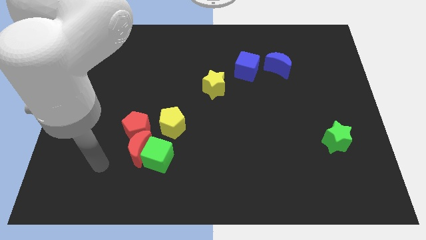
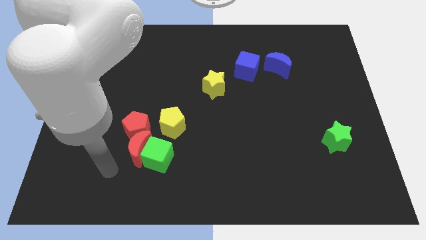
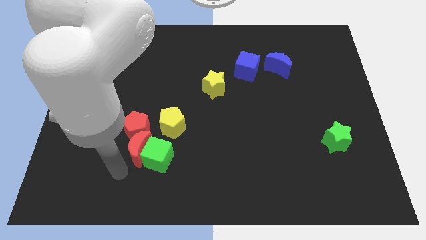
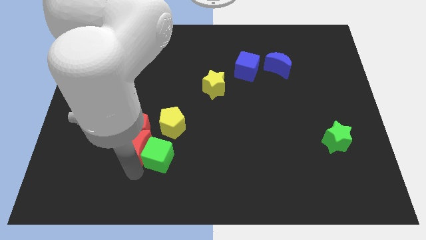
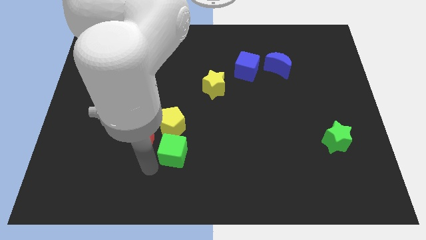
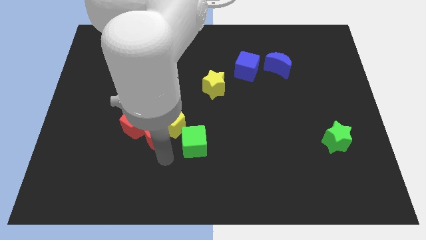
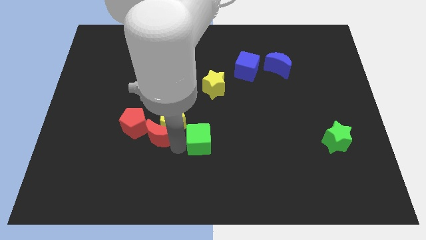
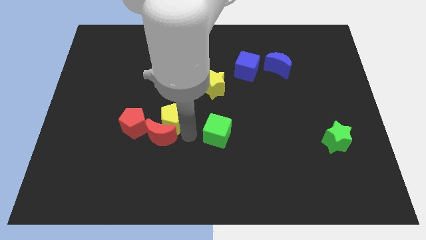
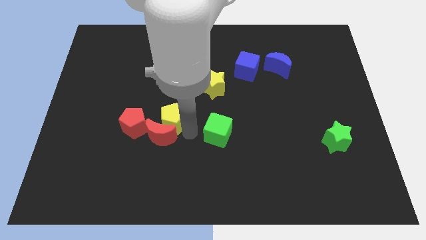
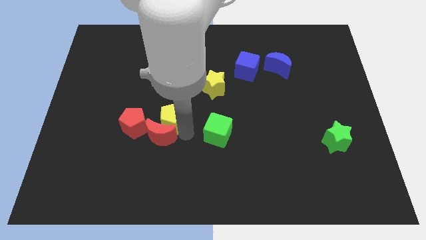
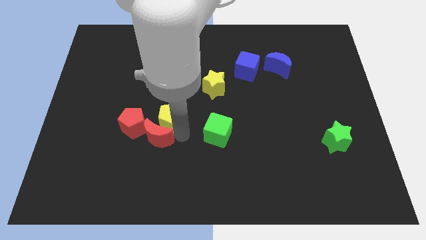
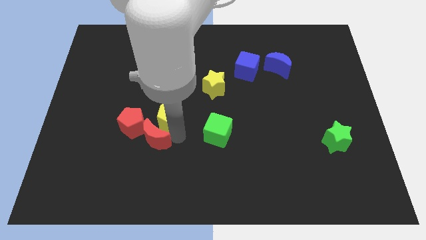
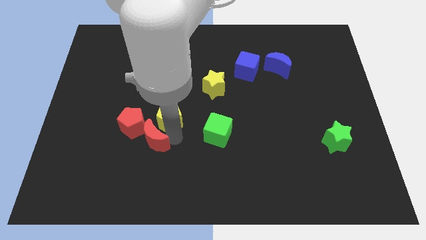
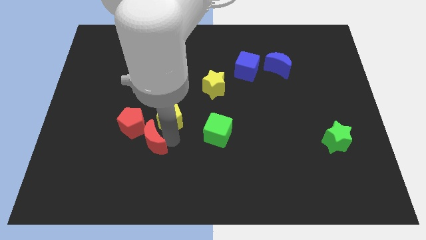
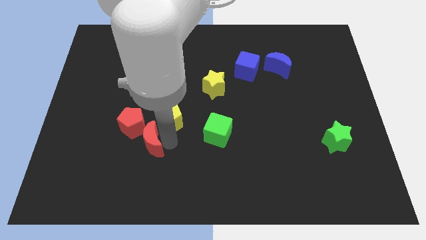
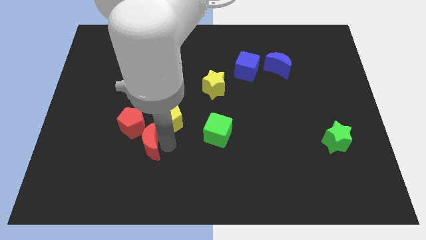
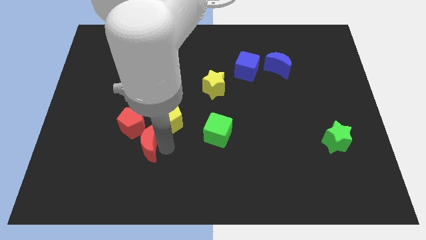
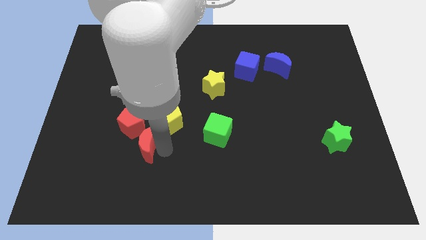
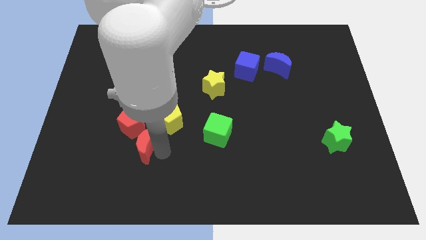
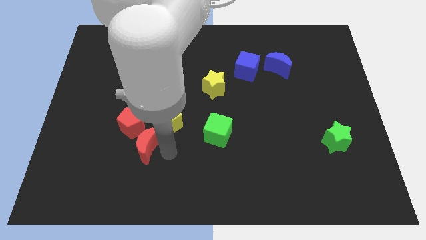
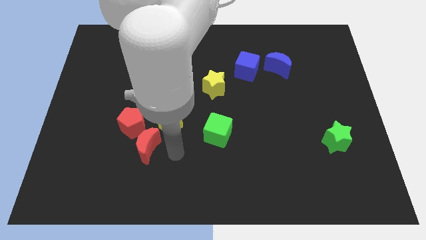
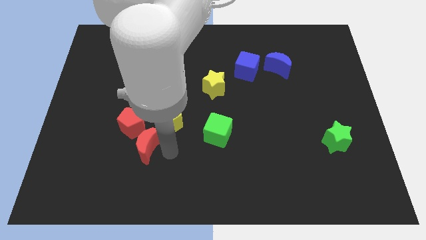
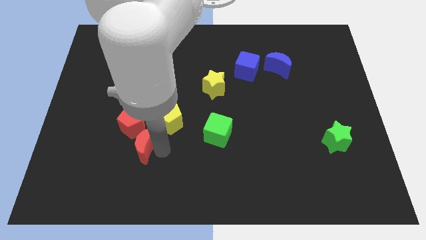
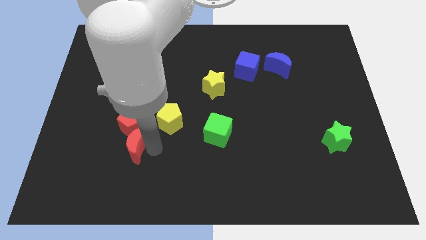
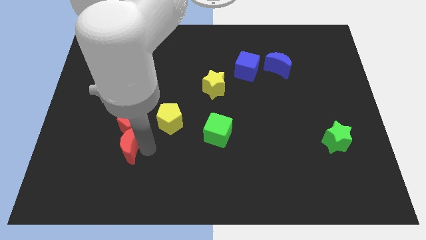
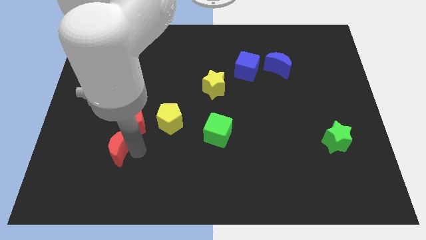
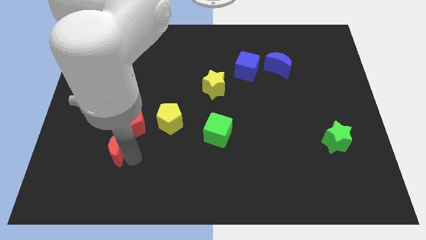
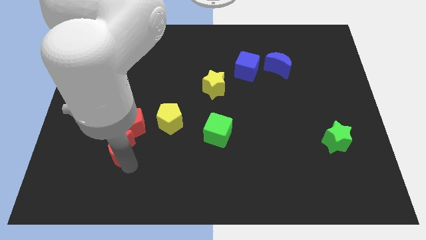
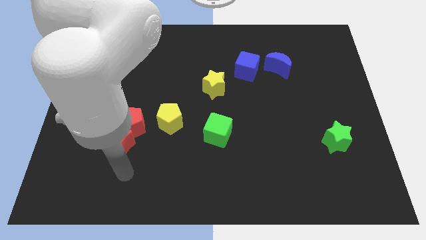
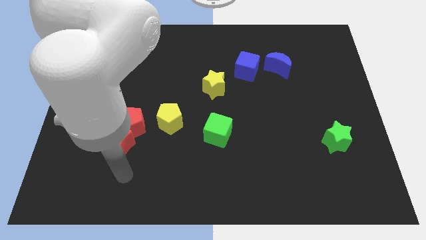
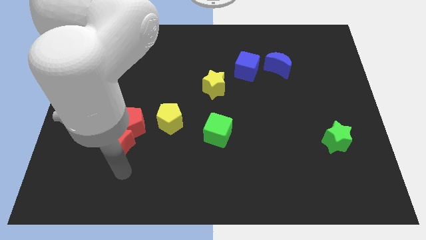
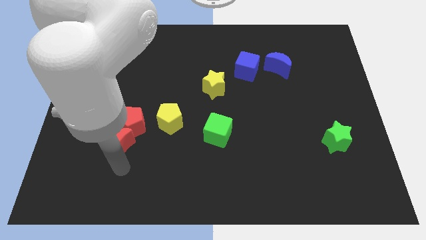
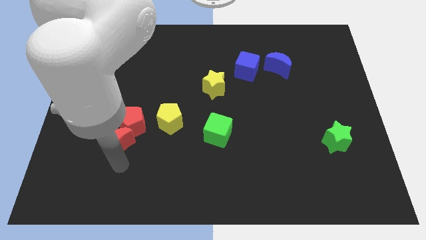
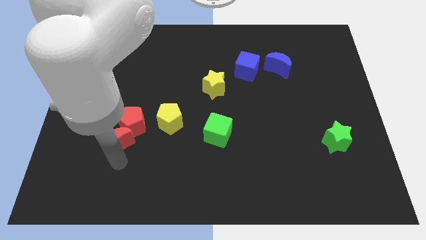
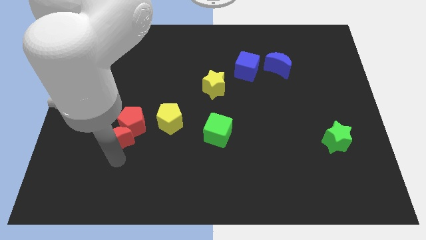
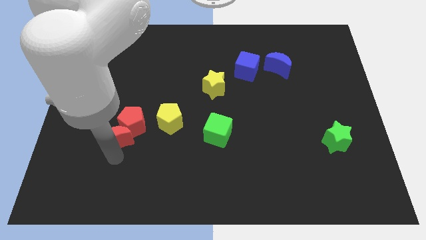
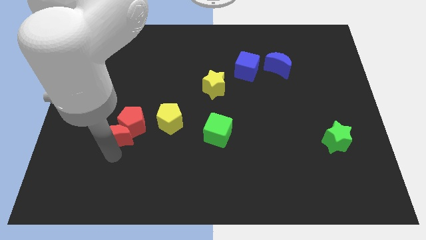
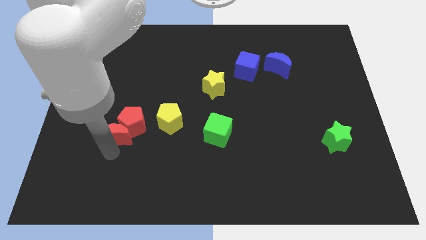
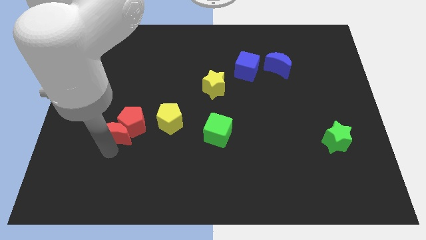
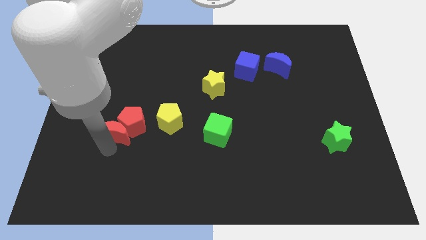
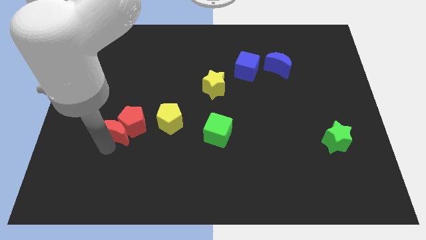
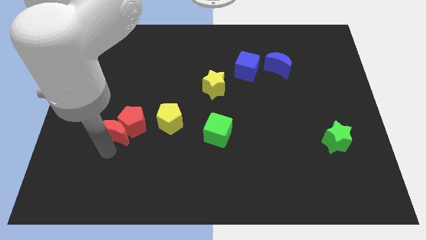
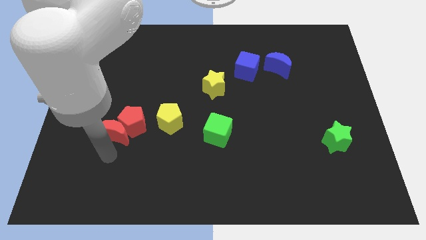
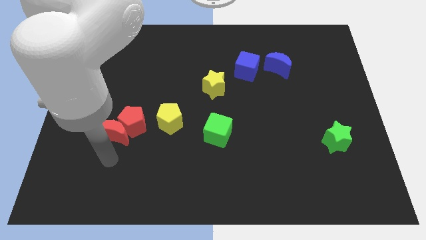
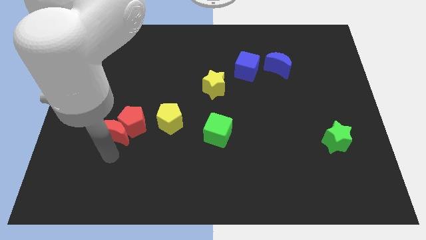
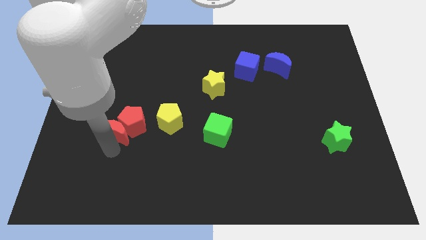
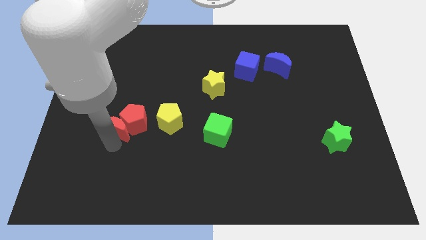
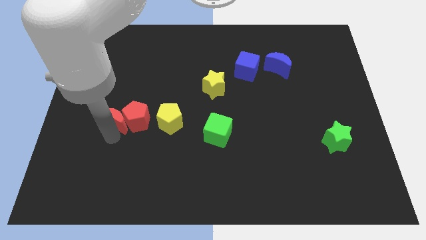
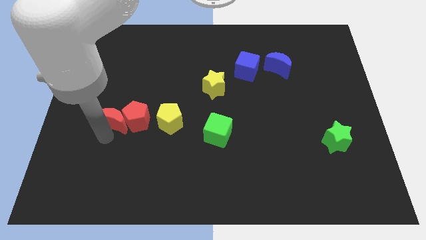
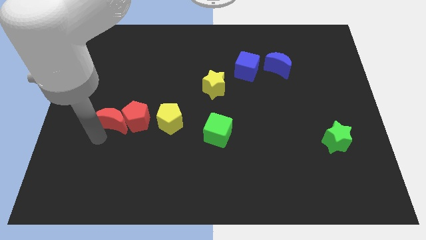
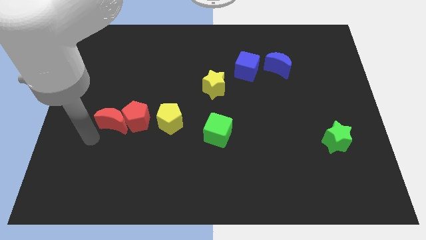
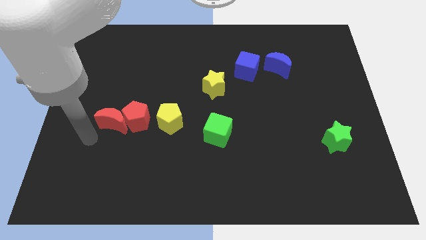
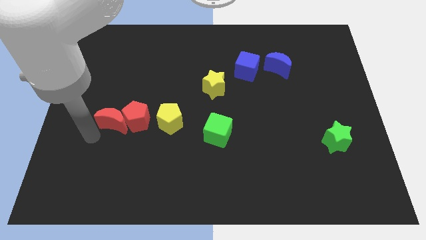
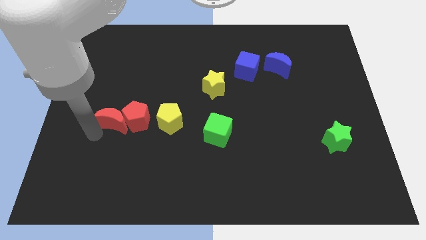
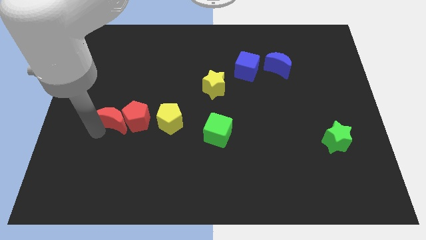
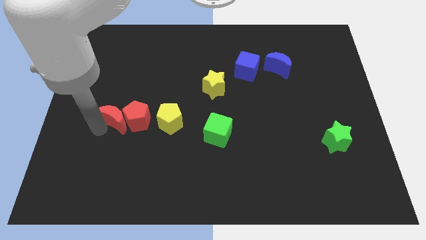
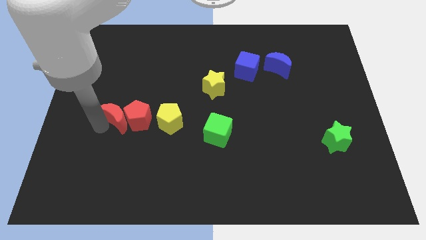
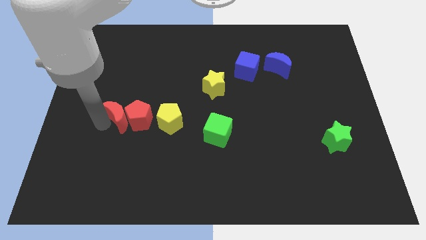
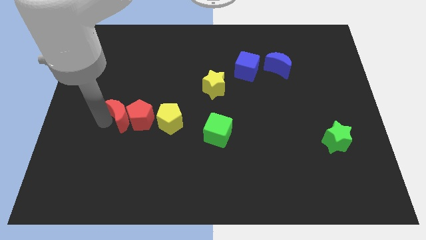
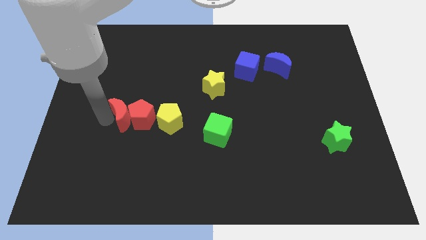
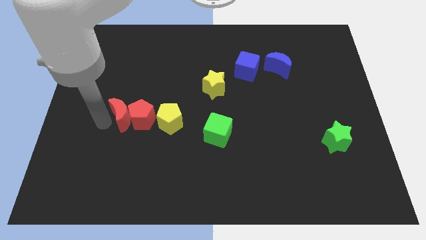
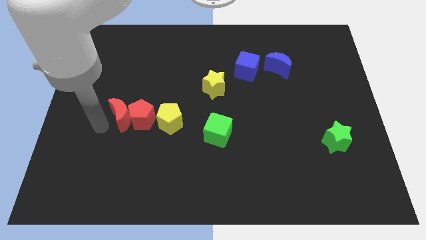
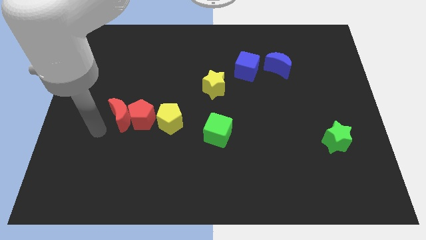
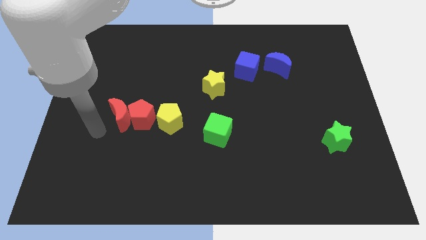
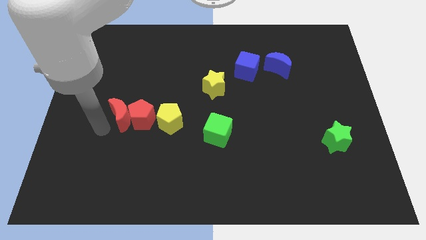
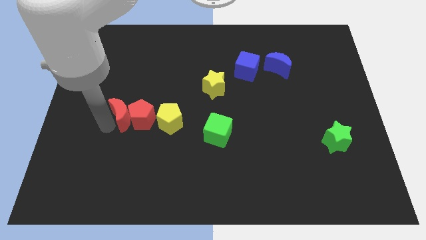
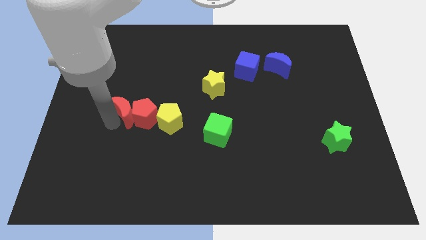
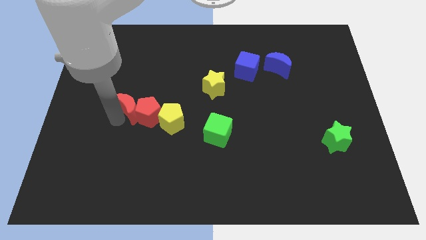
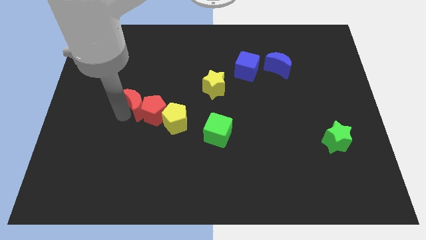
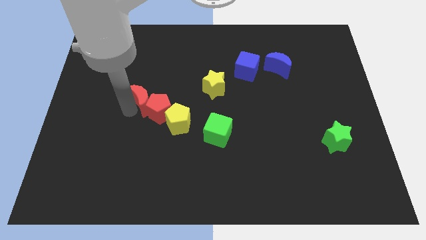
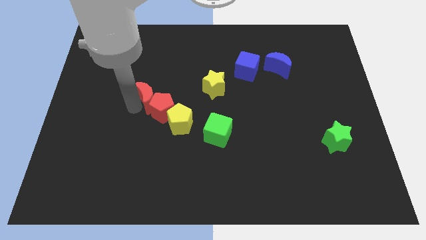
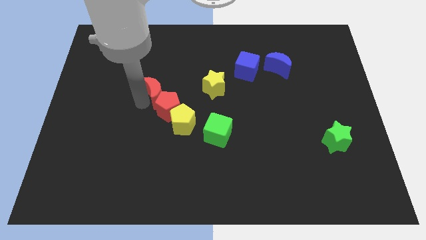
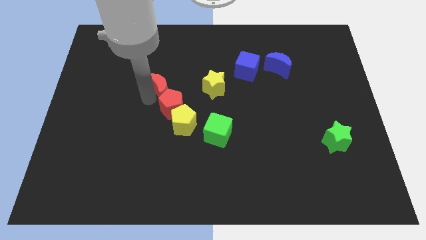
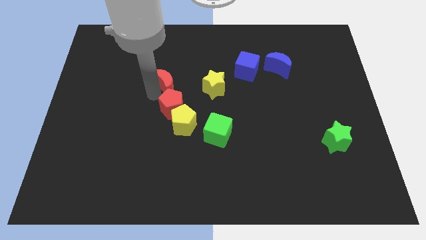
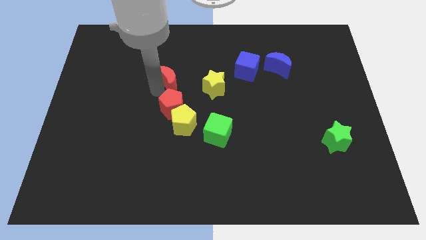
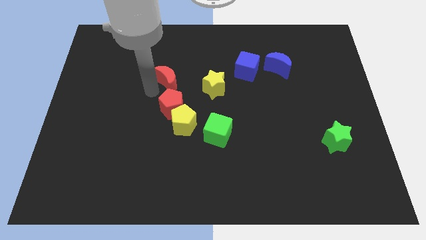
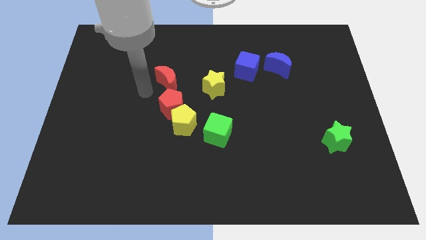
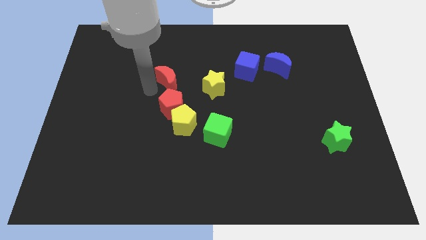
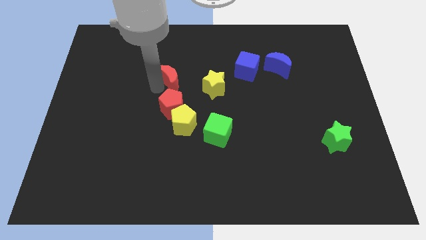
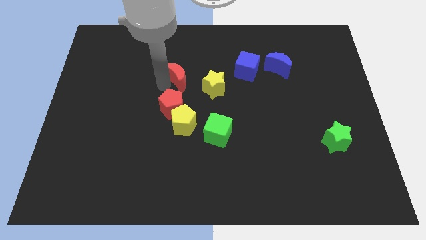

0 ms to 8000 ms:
slide the red moon to the top left side of the yellow star

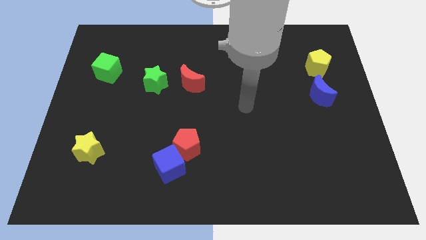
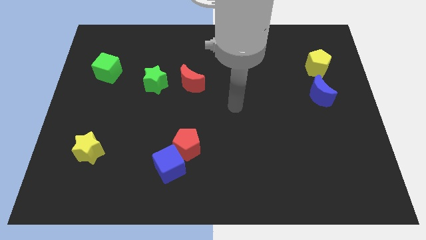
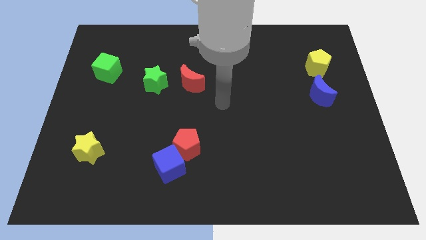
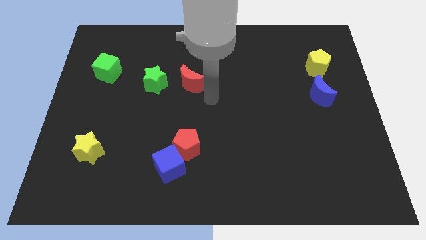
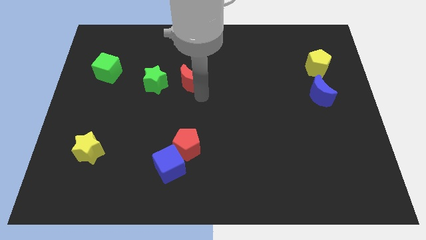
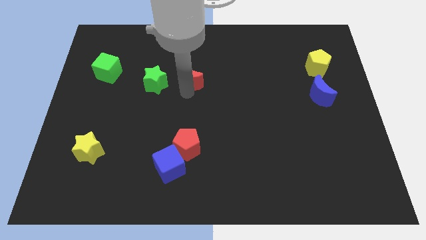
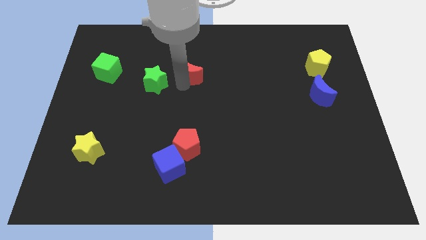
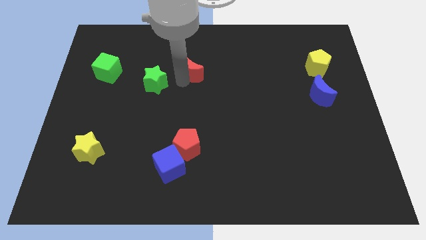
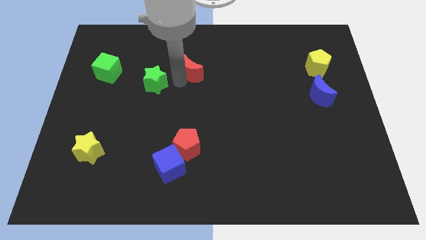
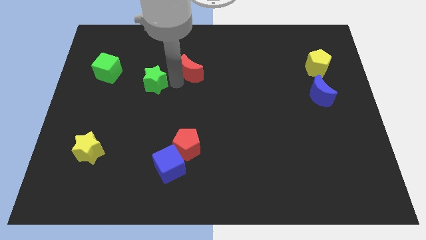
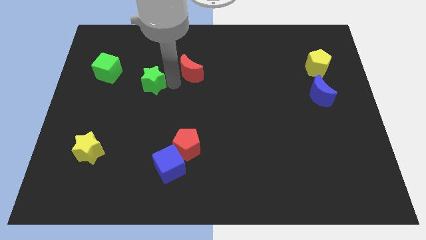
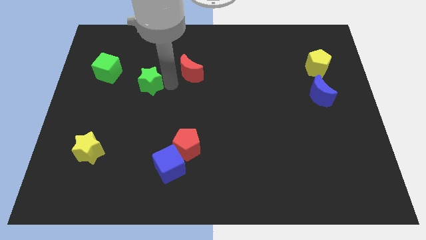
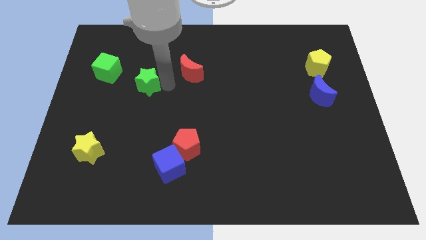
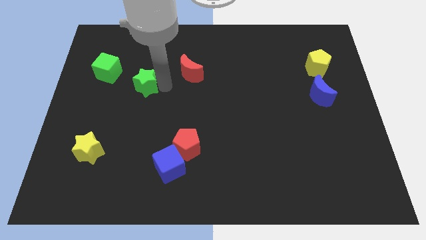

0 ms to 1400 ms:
push the green star to the bottom right side of the green cube
